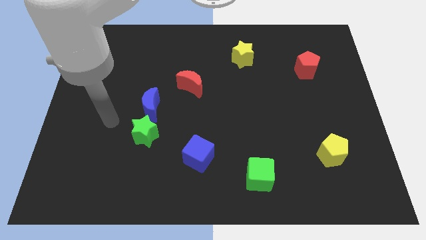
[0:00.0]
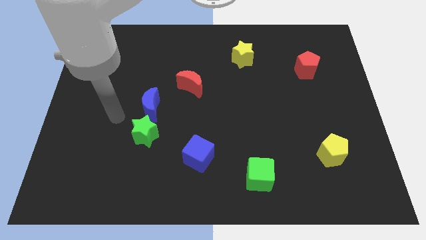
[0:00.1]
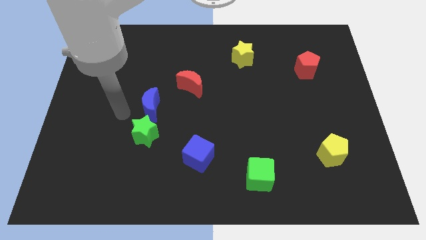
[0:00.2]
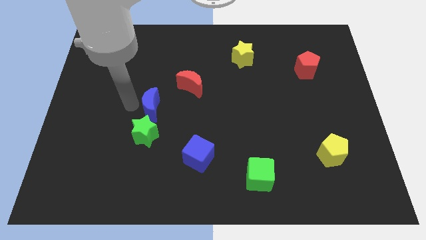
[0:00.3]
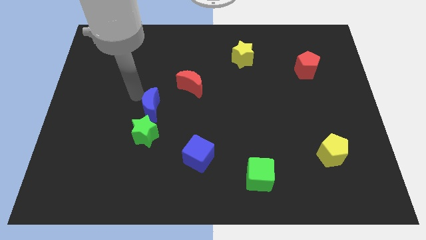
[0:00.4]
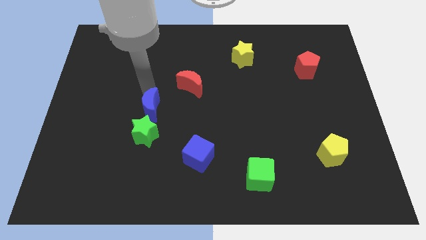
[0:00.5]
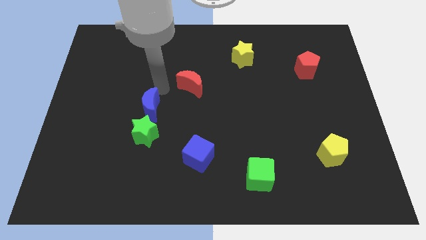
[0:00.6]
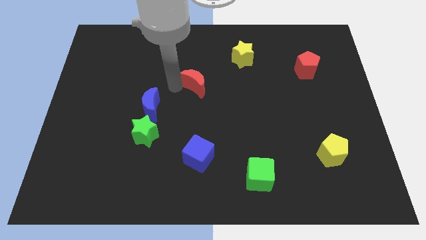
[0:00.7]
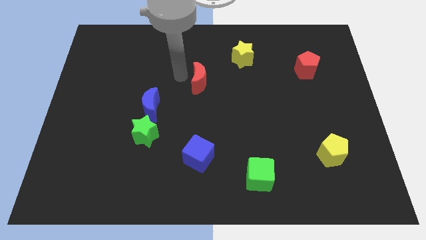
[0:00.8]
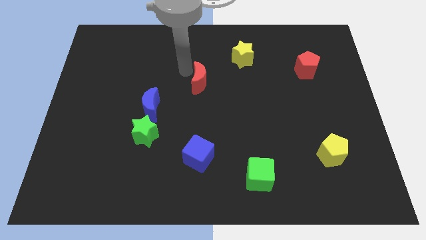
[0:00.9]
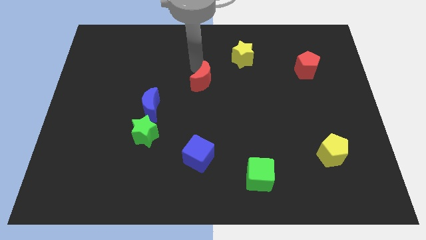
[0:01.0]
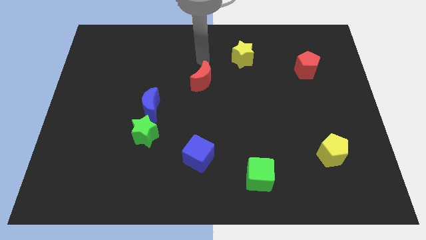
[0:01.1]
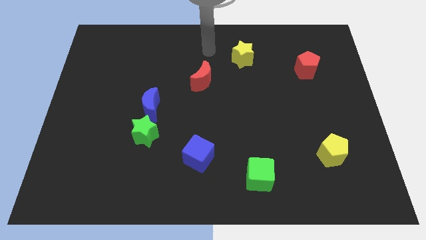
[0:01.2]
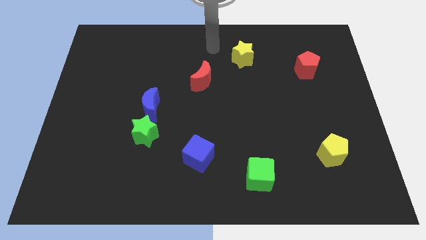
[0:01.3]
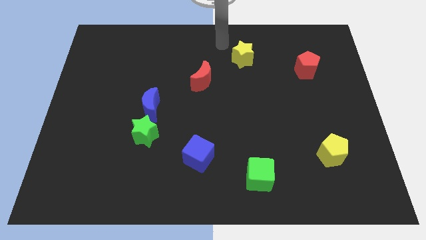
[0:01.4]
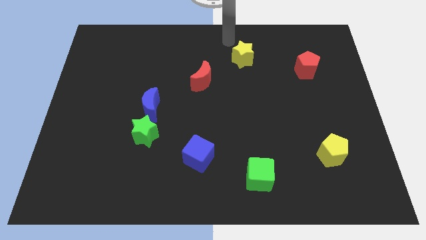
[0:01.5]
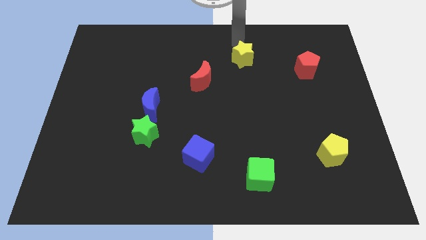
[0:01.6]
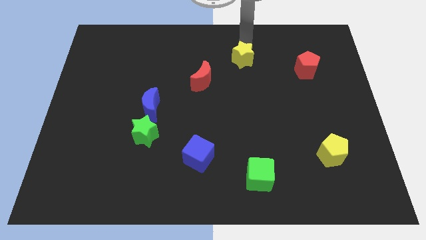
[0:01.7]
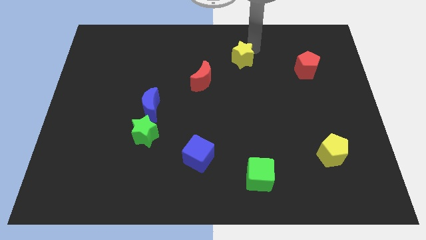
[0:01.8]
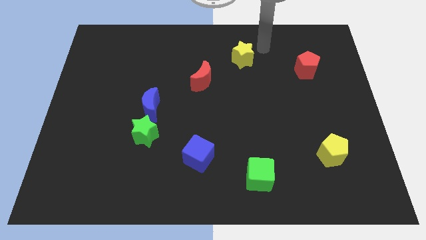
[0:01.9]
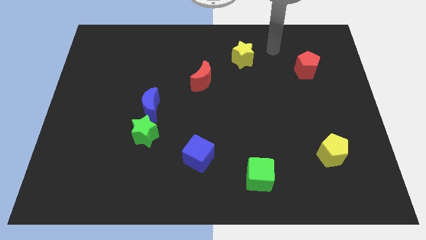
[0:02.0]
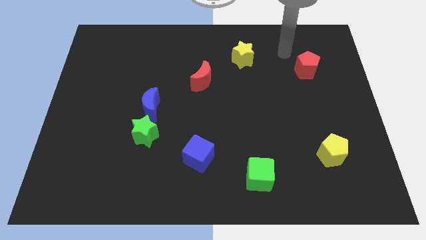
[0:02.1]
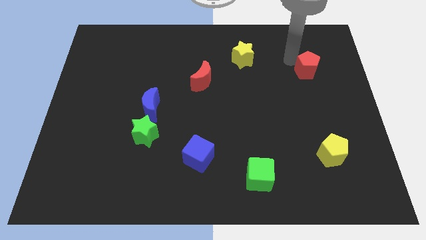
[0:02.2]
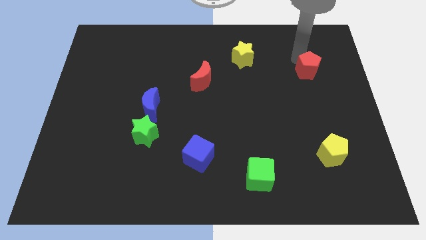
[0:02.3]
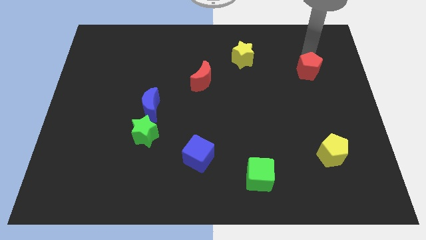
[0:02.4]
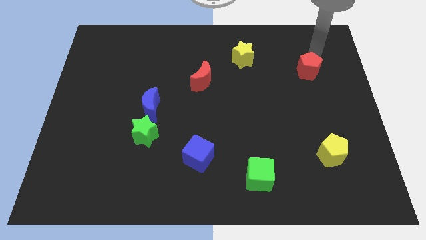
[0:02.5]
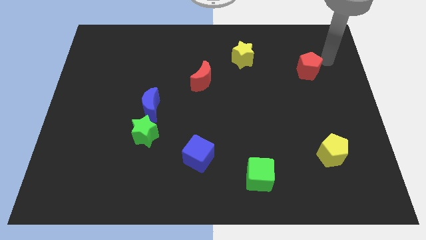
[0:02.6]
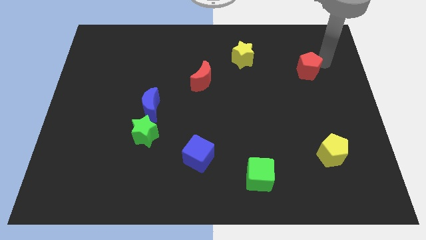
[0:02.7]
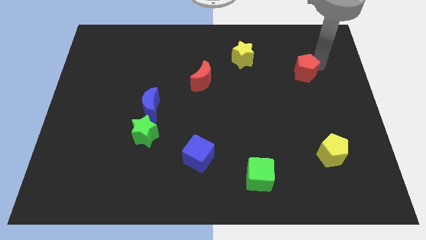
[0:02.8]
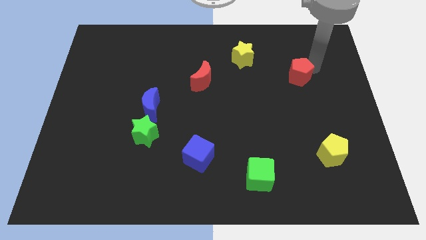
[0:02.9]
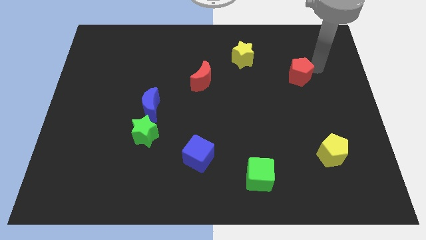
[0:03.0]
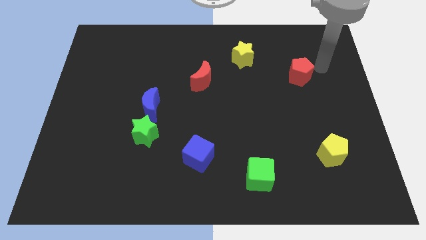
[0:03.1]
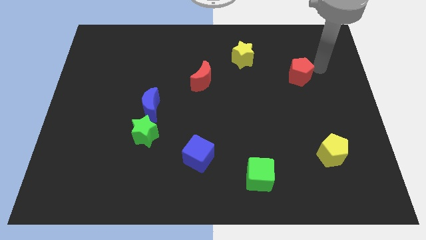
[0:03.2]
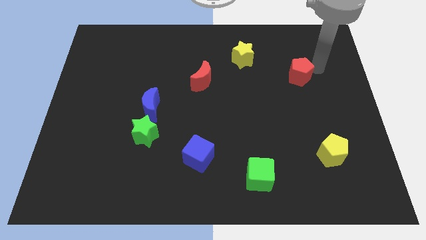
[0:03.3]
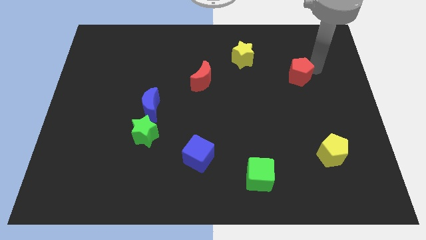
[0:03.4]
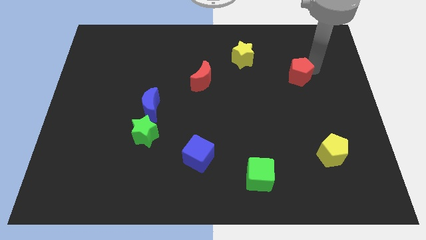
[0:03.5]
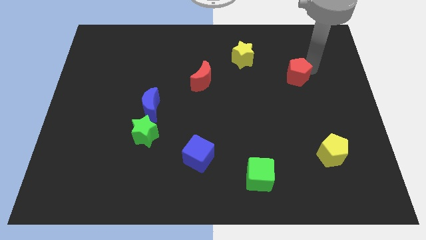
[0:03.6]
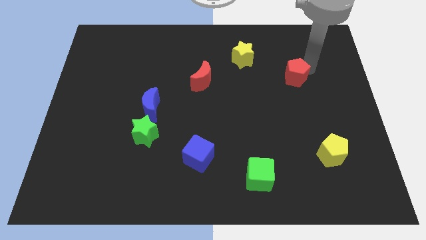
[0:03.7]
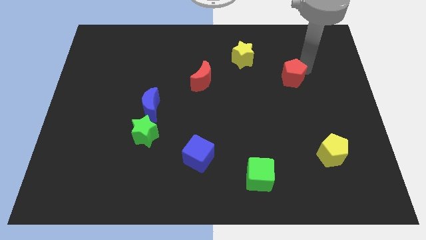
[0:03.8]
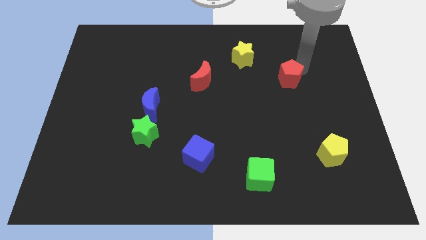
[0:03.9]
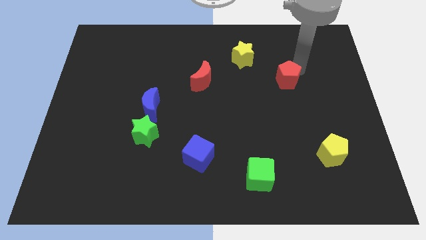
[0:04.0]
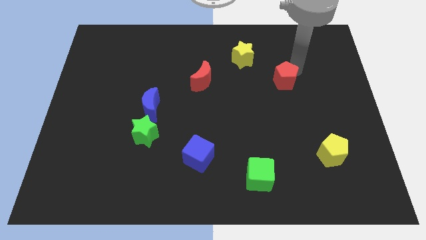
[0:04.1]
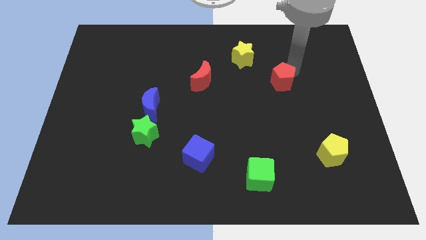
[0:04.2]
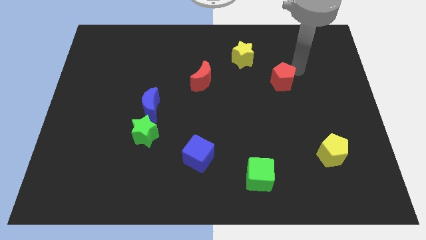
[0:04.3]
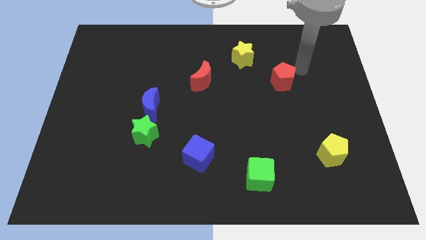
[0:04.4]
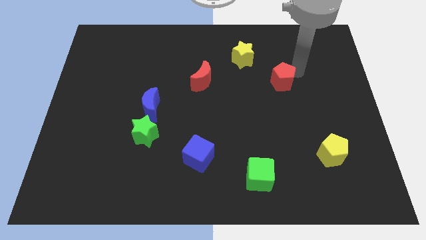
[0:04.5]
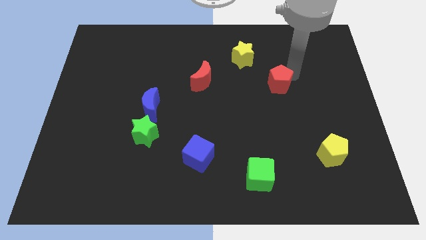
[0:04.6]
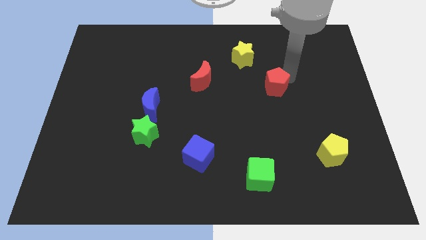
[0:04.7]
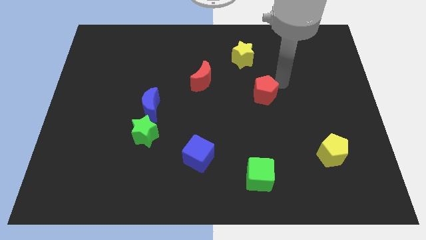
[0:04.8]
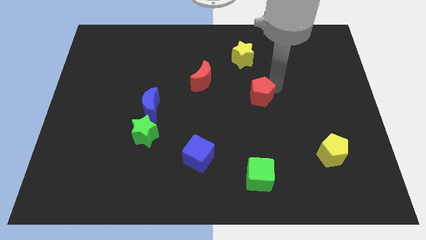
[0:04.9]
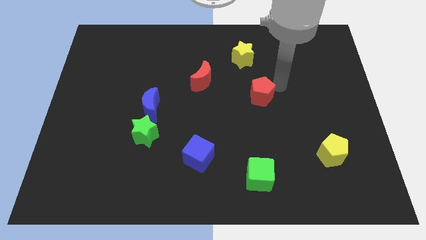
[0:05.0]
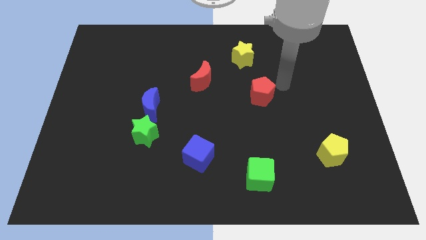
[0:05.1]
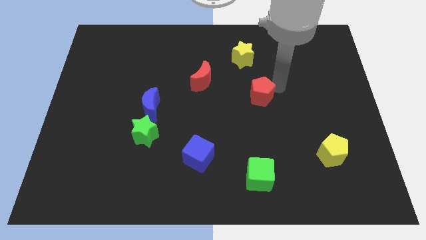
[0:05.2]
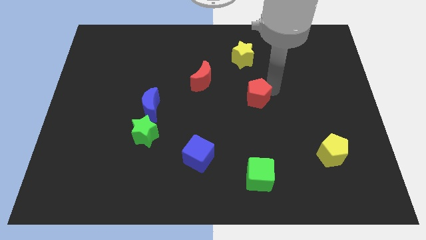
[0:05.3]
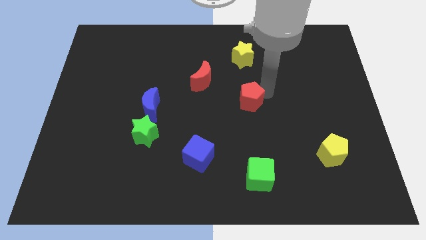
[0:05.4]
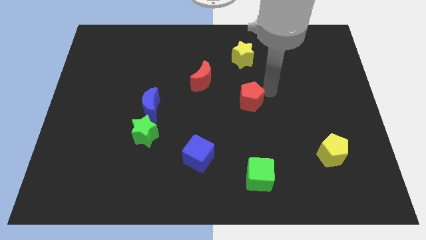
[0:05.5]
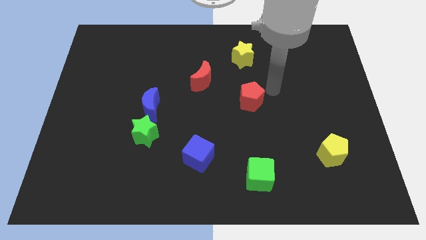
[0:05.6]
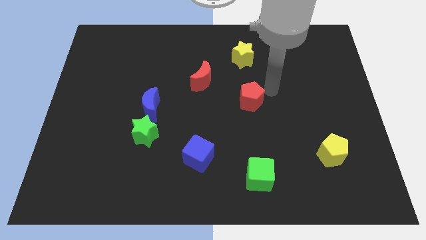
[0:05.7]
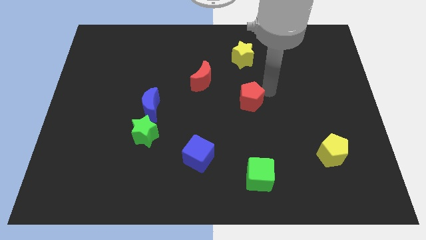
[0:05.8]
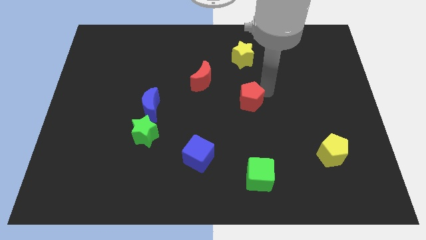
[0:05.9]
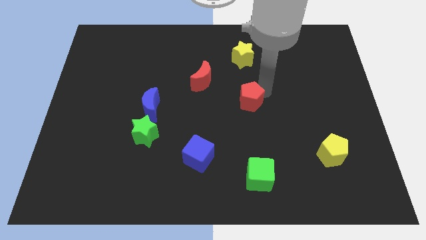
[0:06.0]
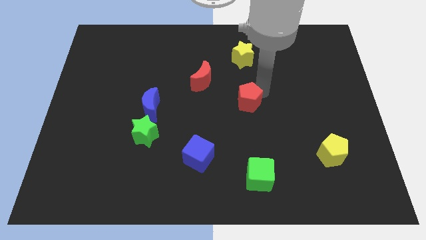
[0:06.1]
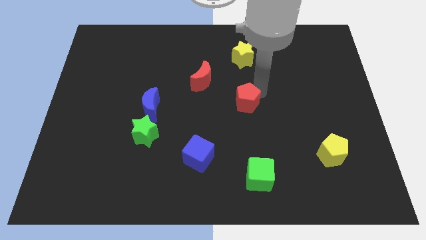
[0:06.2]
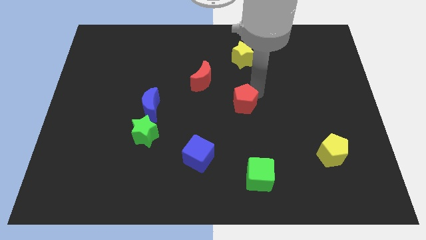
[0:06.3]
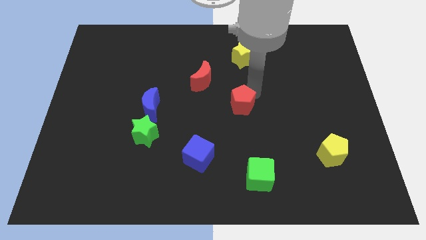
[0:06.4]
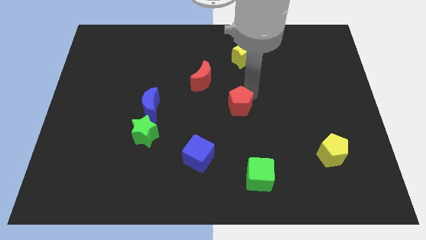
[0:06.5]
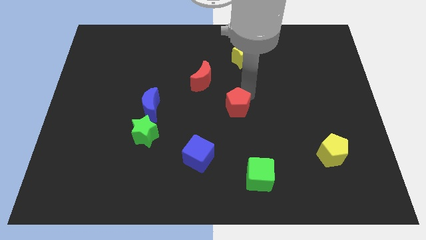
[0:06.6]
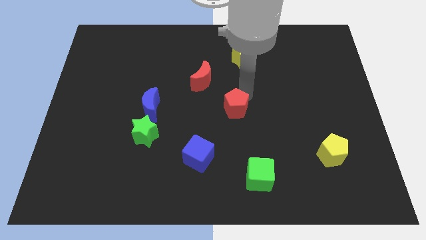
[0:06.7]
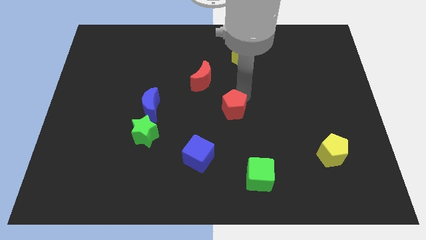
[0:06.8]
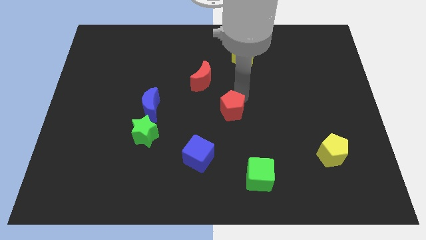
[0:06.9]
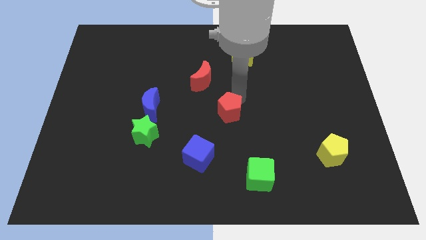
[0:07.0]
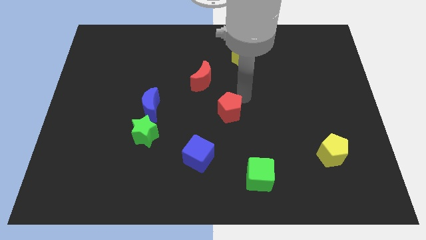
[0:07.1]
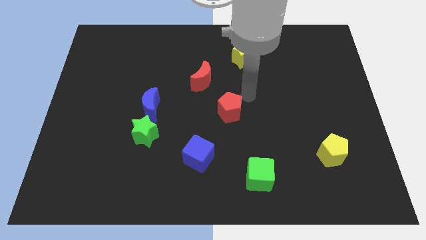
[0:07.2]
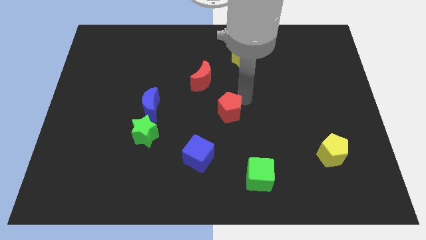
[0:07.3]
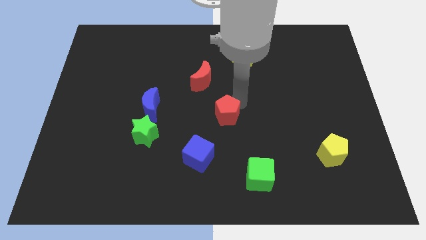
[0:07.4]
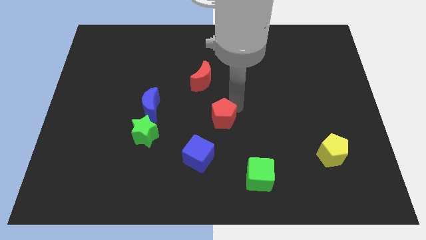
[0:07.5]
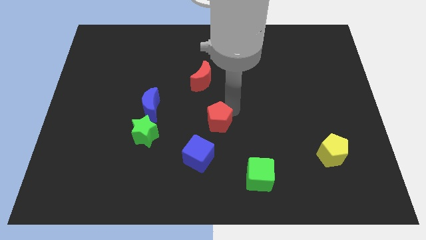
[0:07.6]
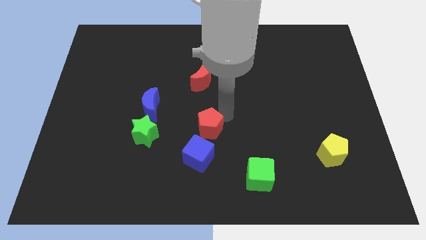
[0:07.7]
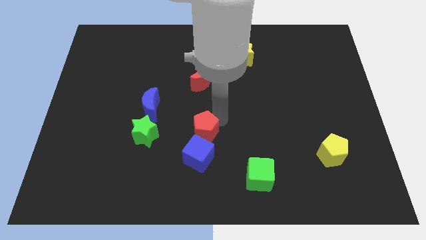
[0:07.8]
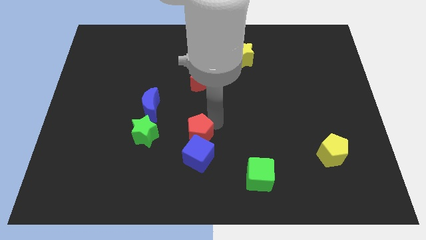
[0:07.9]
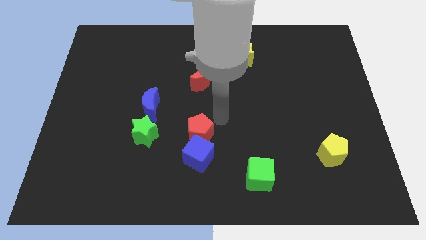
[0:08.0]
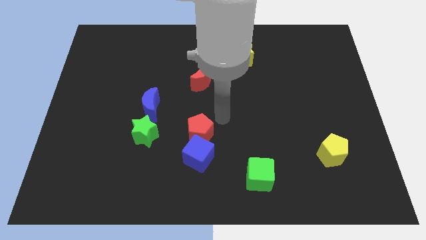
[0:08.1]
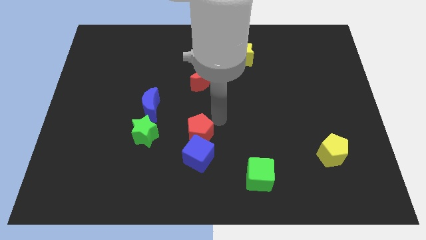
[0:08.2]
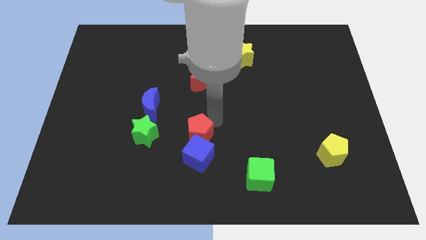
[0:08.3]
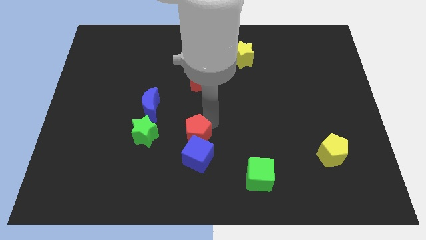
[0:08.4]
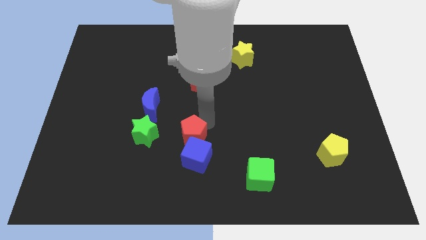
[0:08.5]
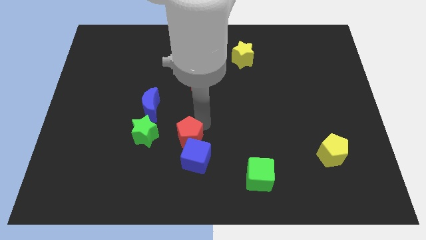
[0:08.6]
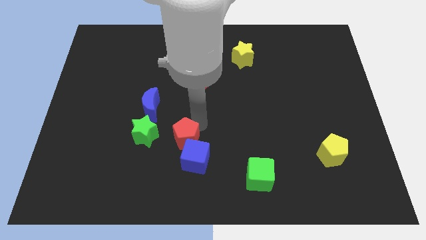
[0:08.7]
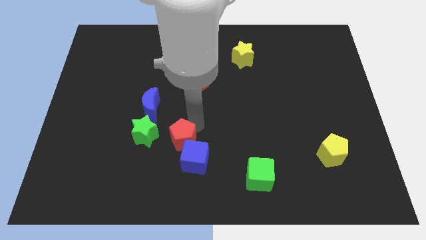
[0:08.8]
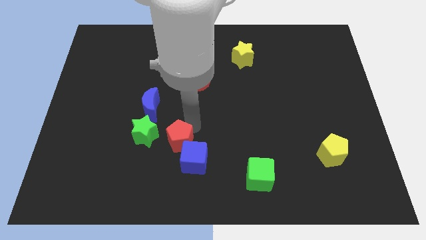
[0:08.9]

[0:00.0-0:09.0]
push the red pentagon to the bottom right side of the green star
